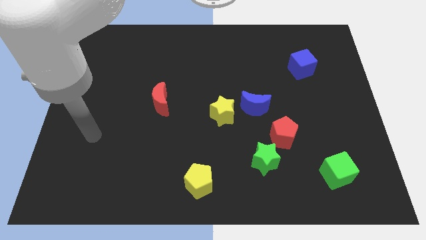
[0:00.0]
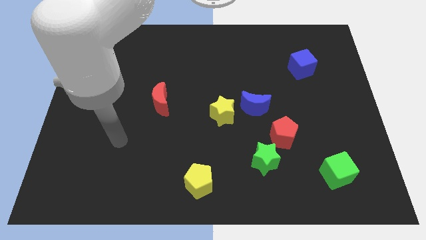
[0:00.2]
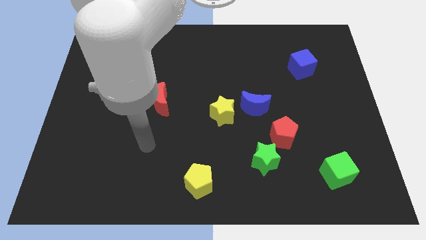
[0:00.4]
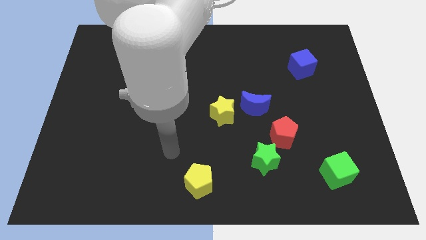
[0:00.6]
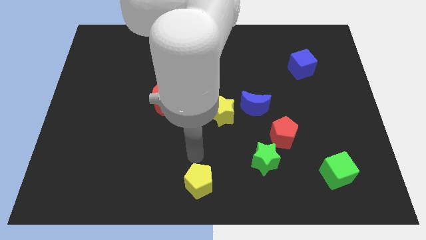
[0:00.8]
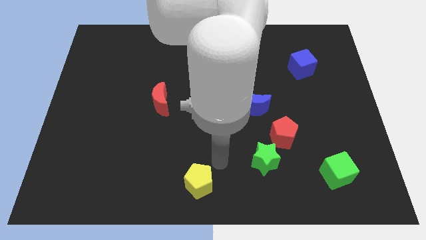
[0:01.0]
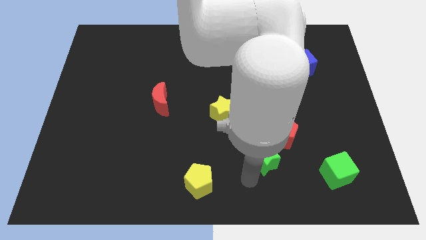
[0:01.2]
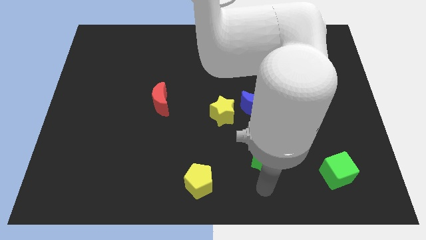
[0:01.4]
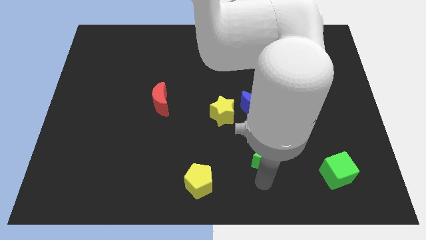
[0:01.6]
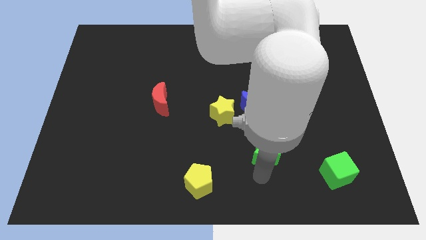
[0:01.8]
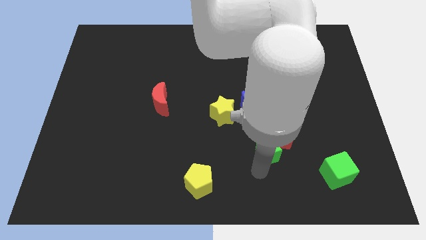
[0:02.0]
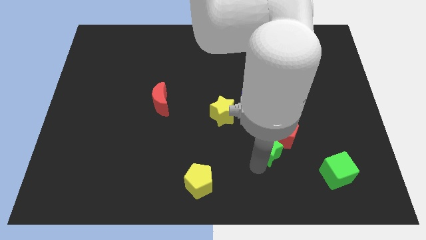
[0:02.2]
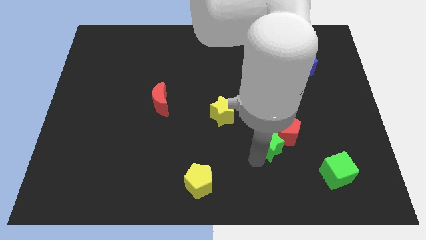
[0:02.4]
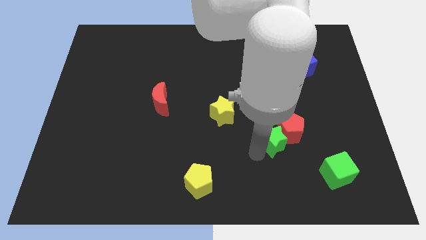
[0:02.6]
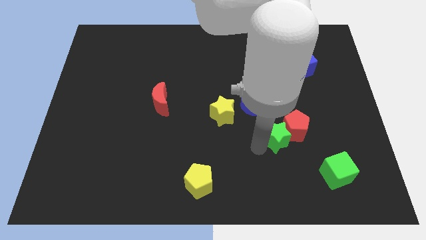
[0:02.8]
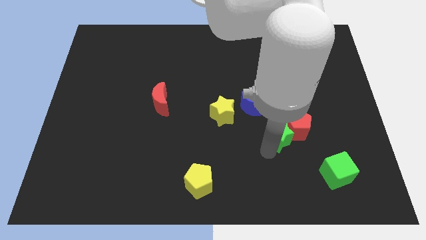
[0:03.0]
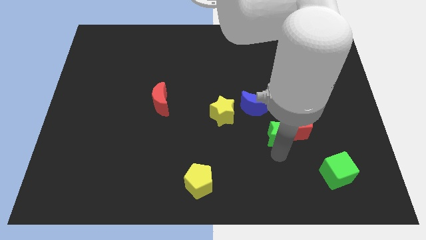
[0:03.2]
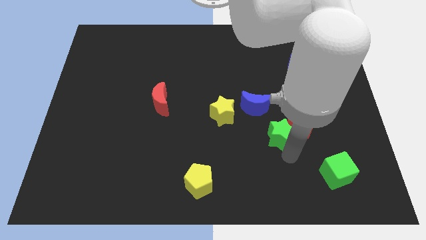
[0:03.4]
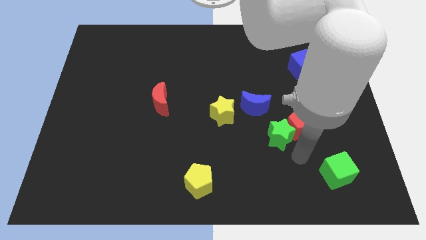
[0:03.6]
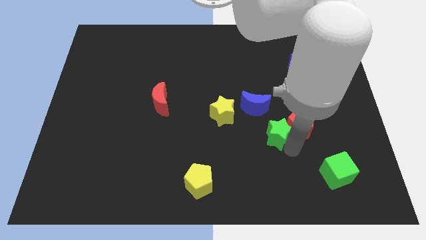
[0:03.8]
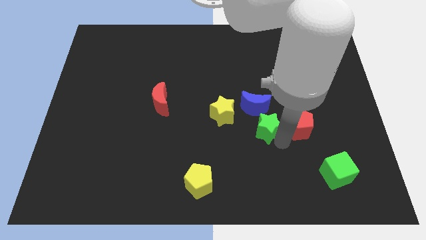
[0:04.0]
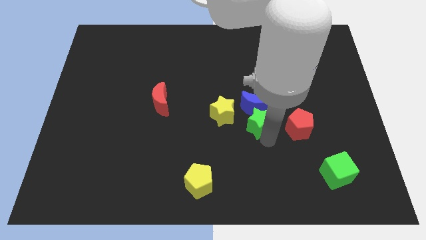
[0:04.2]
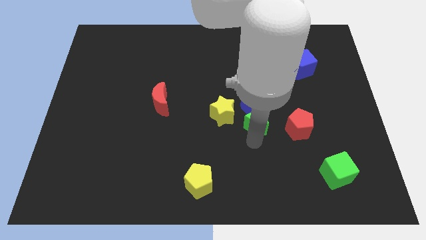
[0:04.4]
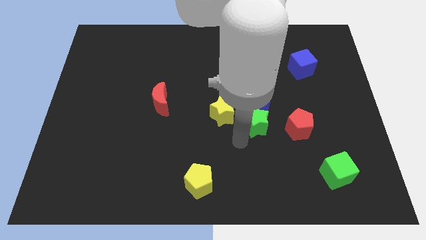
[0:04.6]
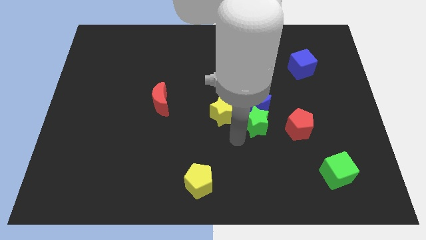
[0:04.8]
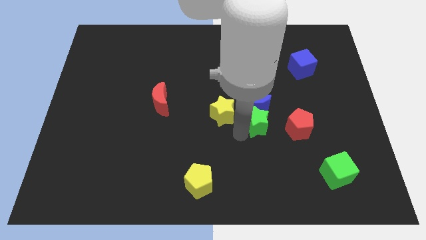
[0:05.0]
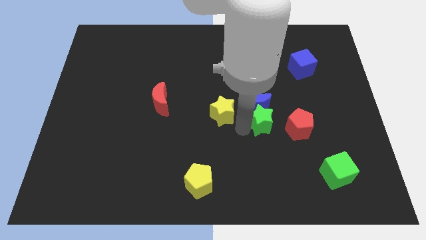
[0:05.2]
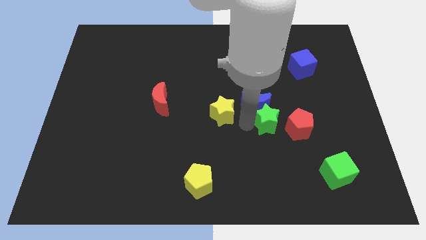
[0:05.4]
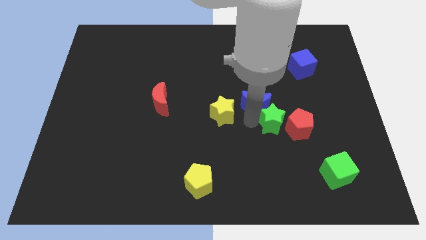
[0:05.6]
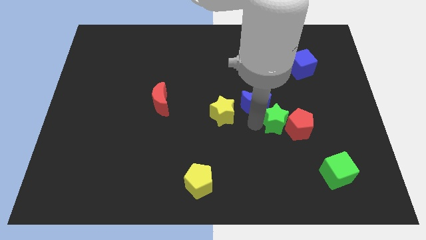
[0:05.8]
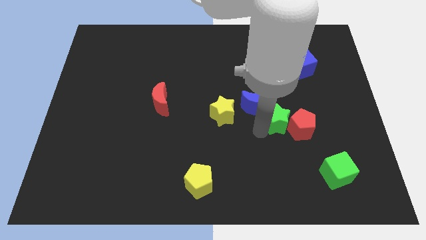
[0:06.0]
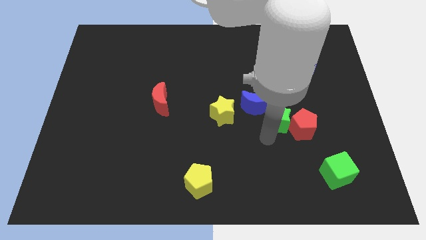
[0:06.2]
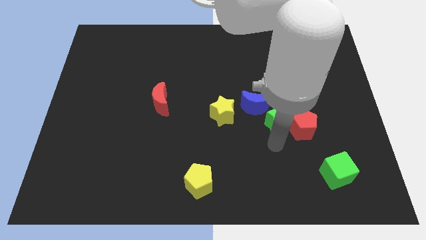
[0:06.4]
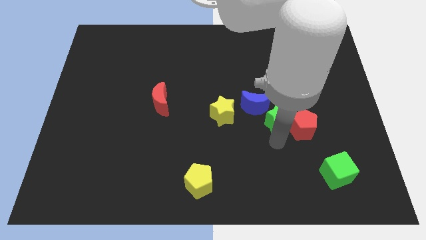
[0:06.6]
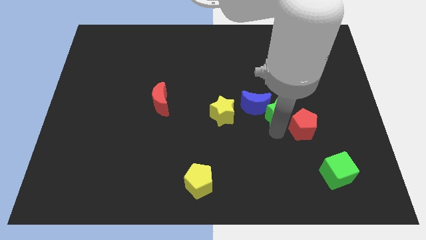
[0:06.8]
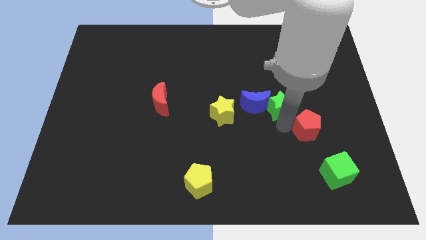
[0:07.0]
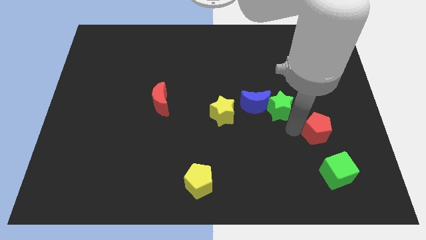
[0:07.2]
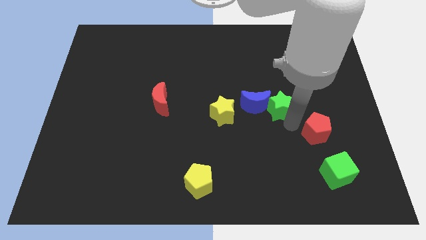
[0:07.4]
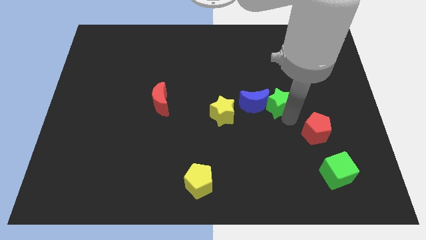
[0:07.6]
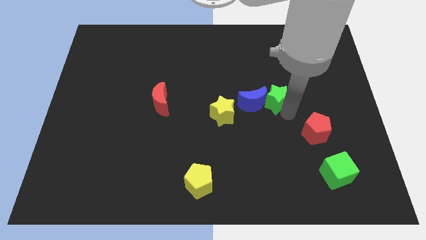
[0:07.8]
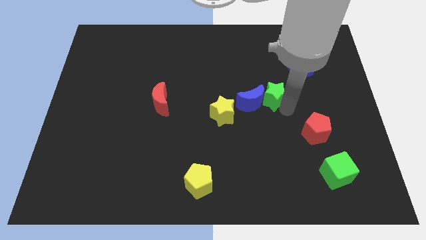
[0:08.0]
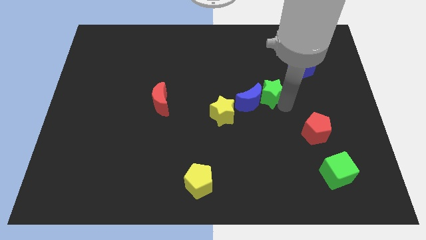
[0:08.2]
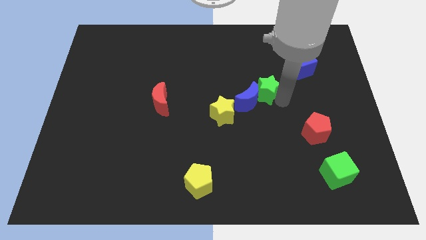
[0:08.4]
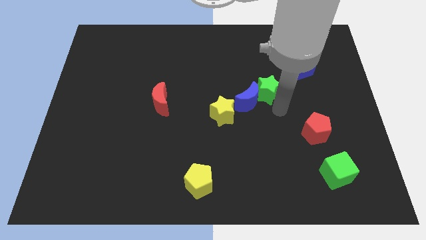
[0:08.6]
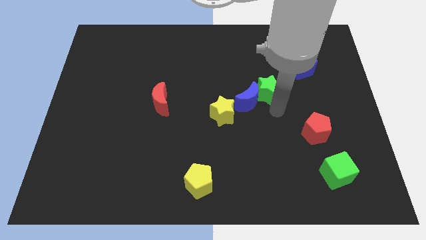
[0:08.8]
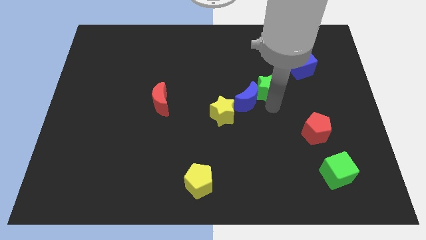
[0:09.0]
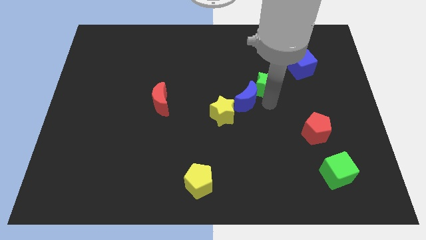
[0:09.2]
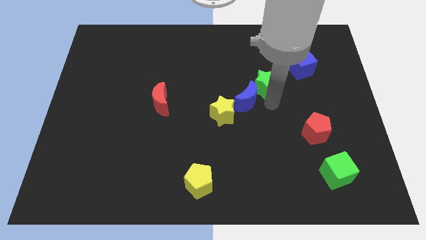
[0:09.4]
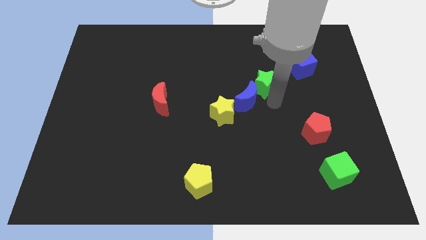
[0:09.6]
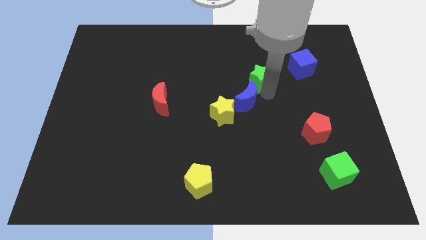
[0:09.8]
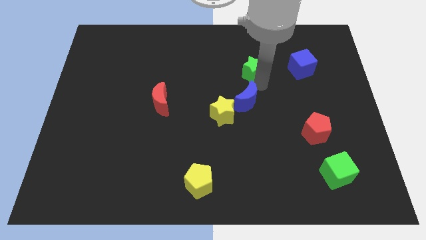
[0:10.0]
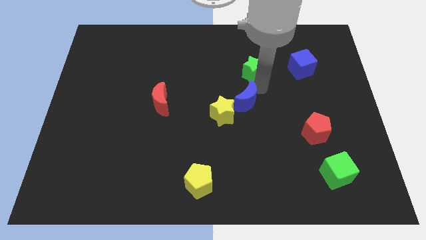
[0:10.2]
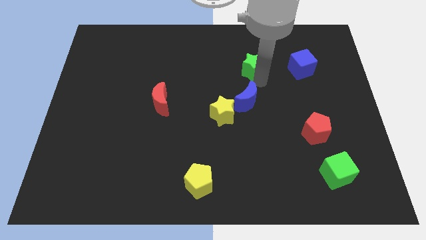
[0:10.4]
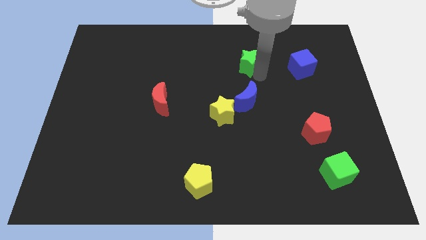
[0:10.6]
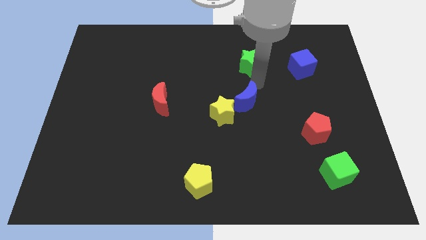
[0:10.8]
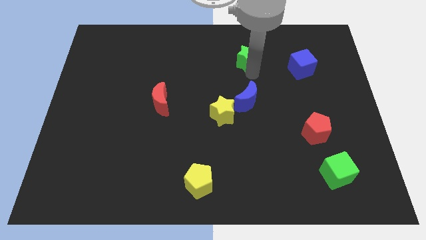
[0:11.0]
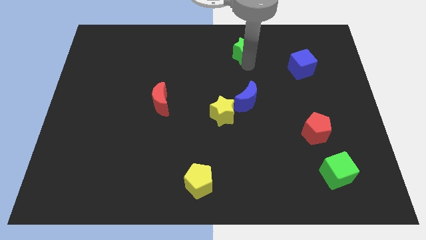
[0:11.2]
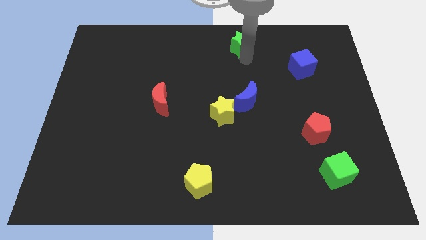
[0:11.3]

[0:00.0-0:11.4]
slide the green star to the top
